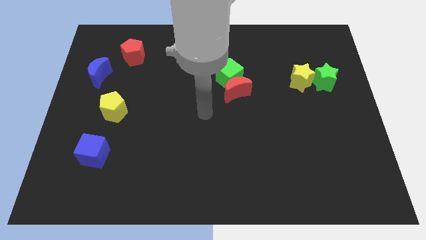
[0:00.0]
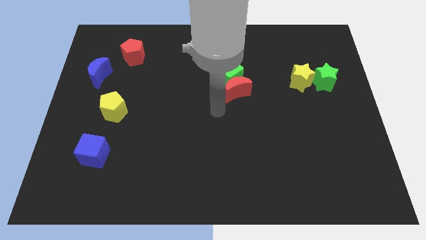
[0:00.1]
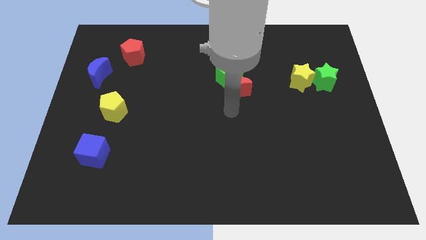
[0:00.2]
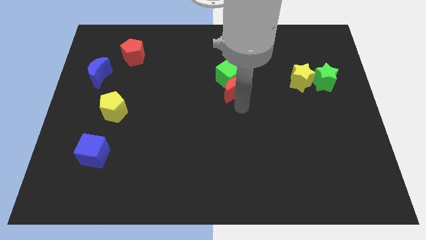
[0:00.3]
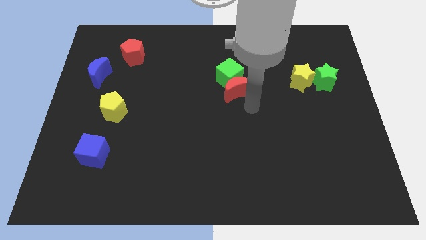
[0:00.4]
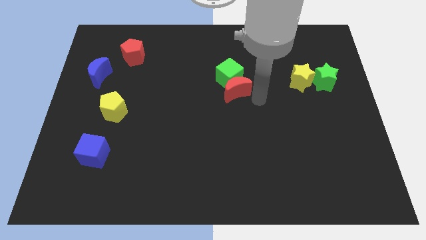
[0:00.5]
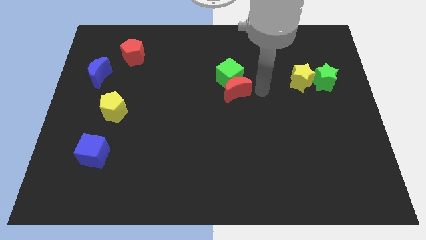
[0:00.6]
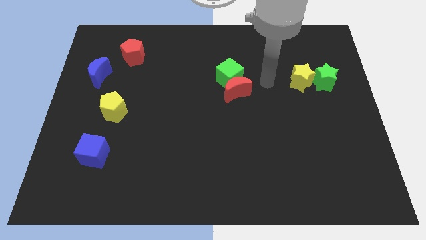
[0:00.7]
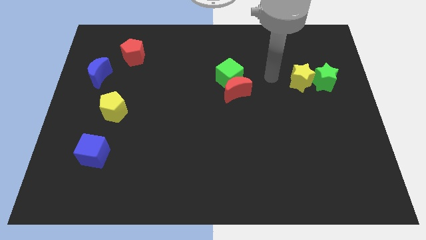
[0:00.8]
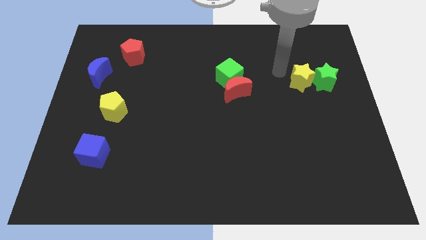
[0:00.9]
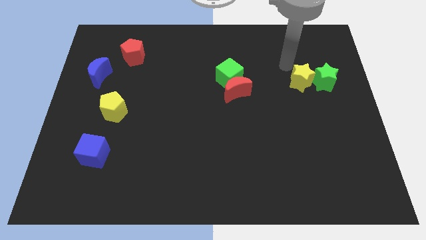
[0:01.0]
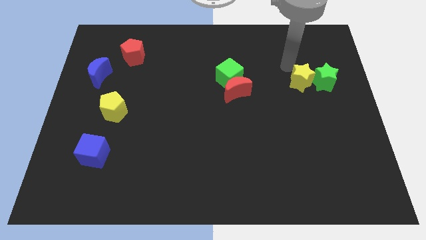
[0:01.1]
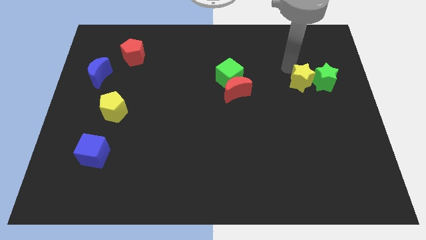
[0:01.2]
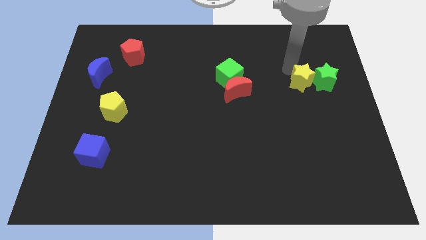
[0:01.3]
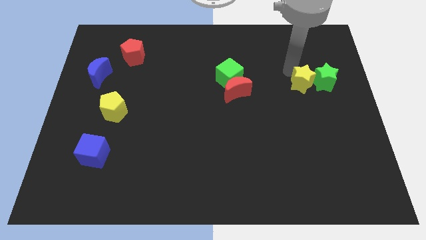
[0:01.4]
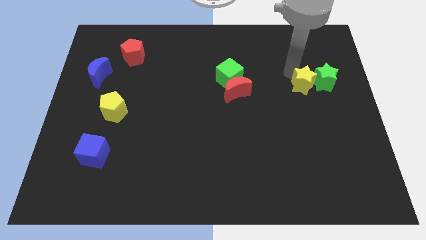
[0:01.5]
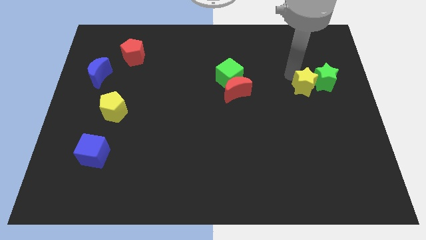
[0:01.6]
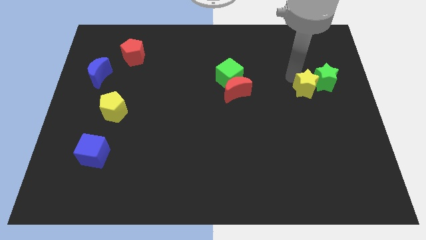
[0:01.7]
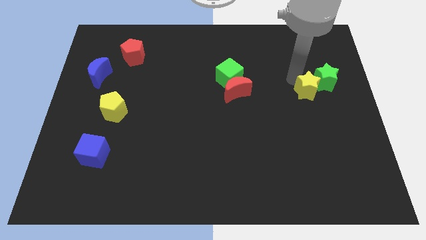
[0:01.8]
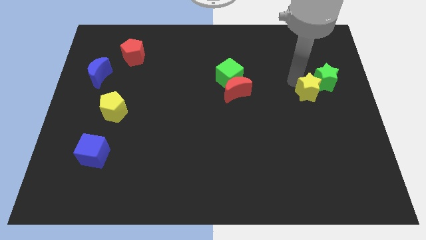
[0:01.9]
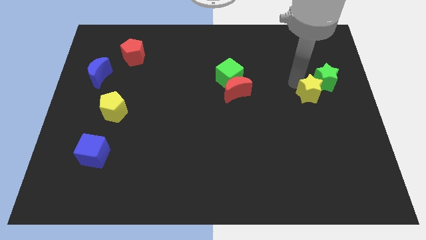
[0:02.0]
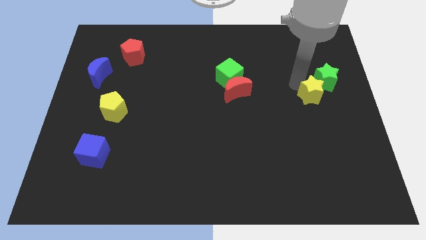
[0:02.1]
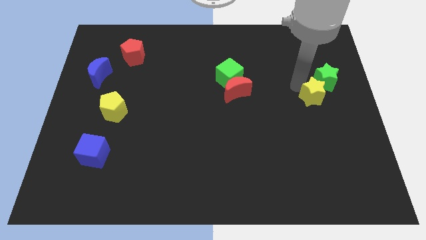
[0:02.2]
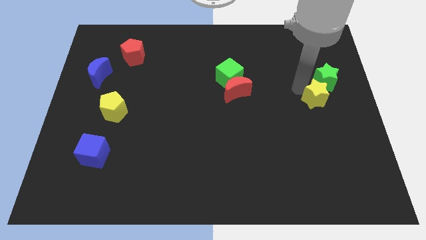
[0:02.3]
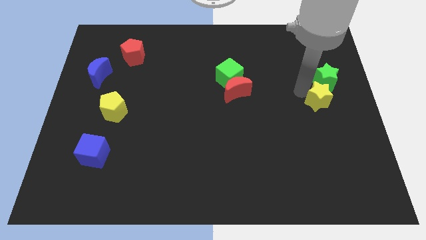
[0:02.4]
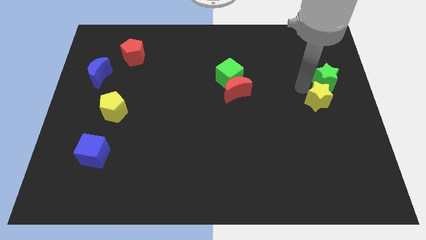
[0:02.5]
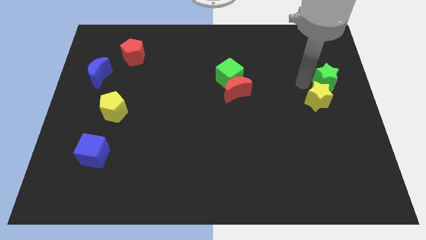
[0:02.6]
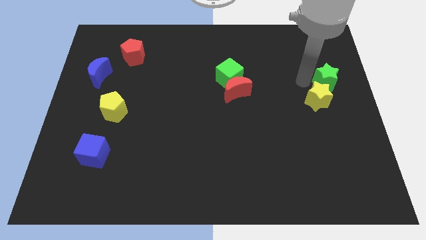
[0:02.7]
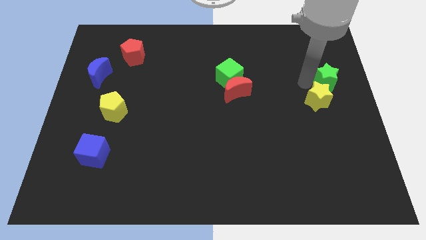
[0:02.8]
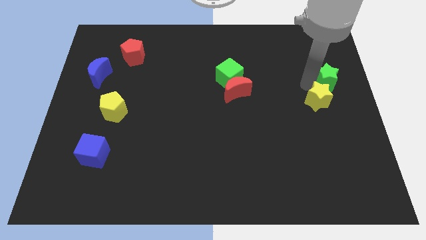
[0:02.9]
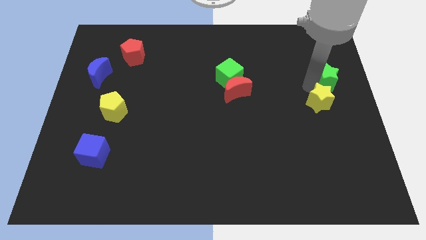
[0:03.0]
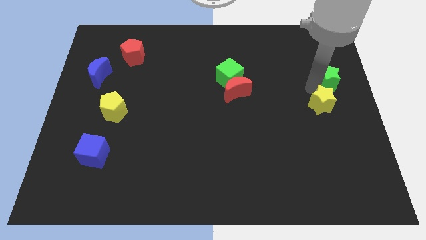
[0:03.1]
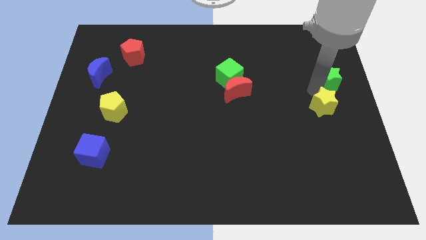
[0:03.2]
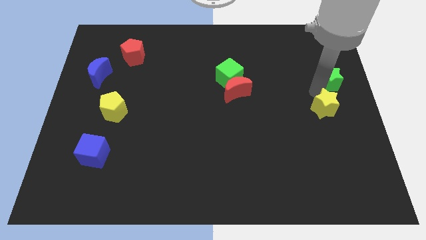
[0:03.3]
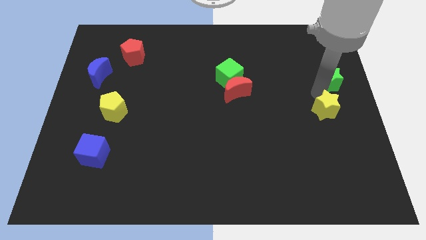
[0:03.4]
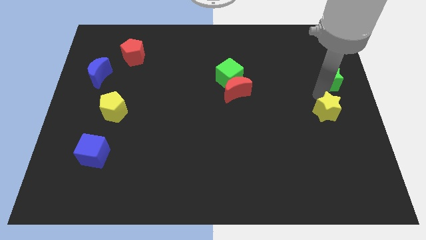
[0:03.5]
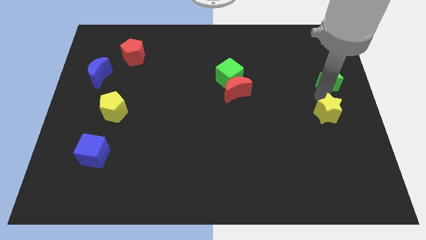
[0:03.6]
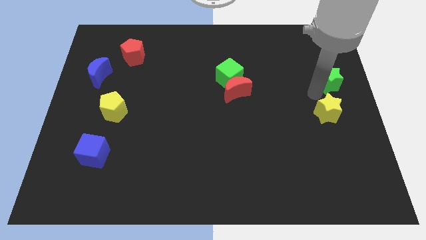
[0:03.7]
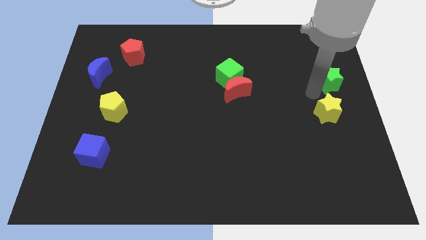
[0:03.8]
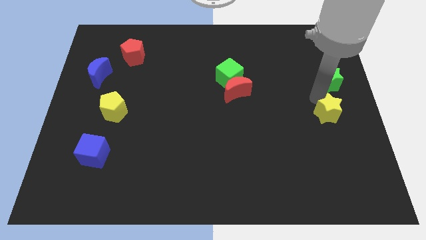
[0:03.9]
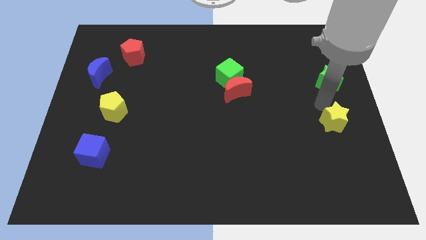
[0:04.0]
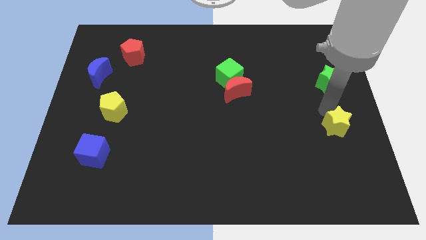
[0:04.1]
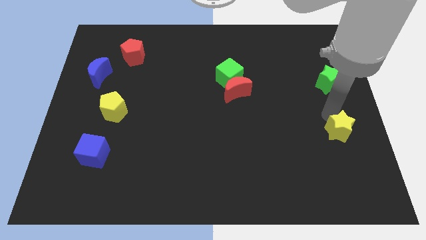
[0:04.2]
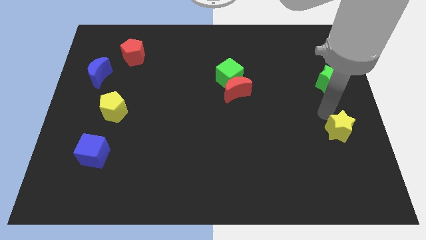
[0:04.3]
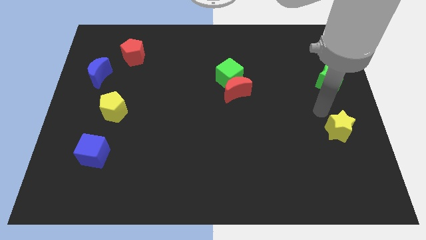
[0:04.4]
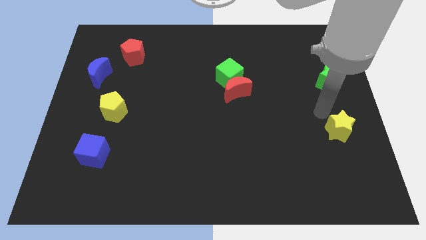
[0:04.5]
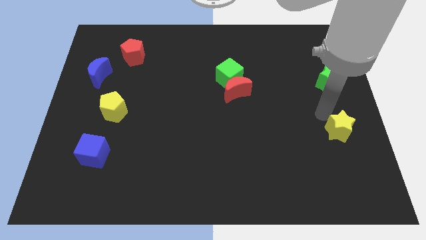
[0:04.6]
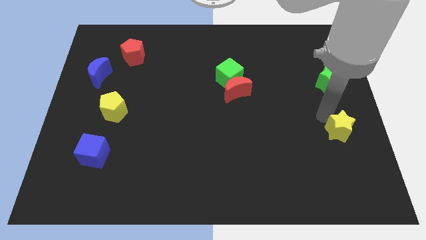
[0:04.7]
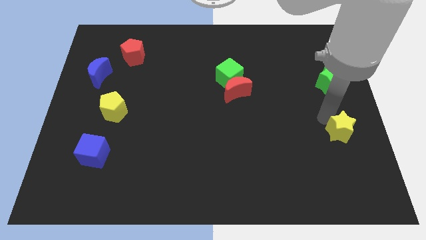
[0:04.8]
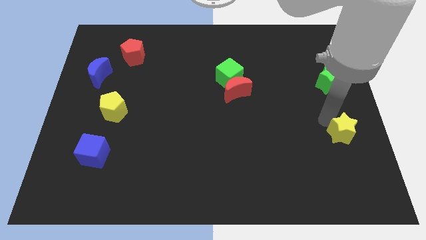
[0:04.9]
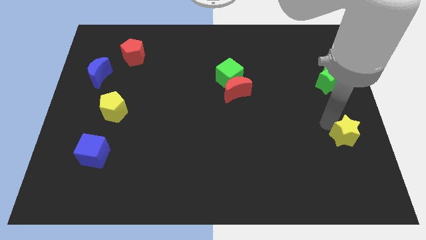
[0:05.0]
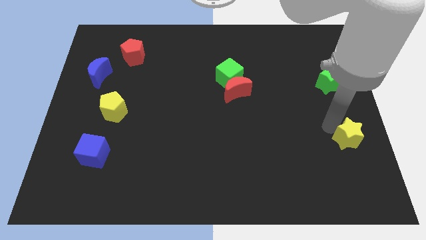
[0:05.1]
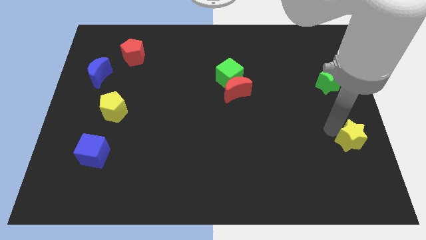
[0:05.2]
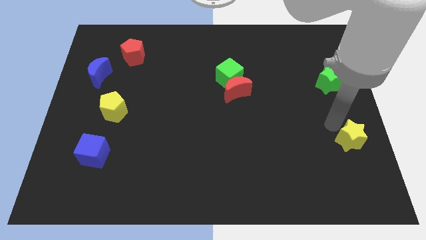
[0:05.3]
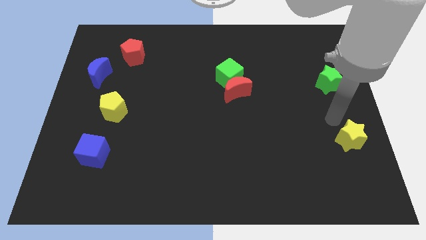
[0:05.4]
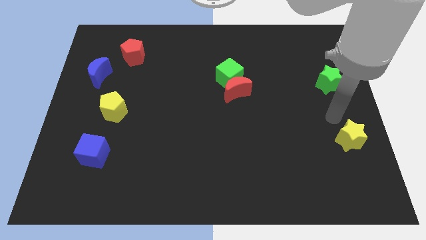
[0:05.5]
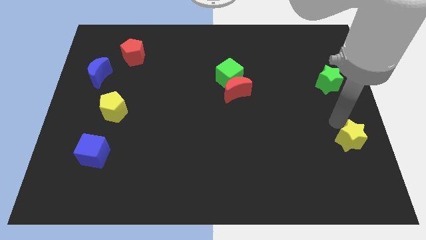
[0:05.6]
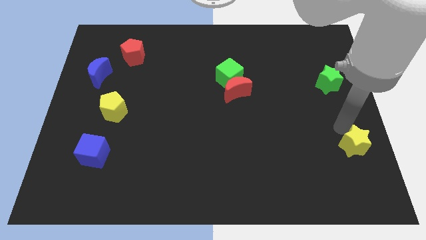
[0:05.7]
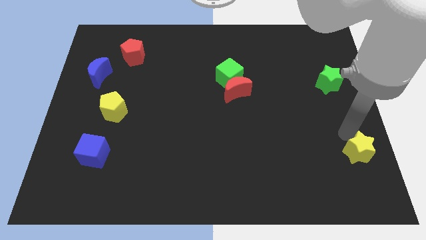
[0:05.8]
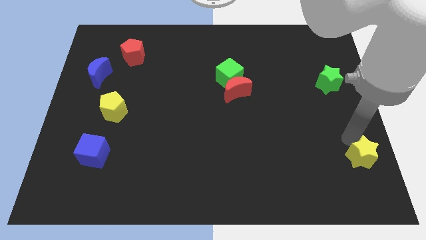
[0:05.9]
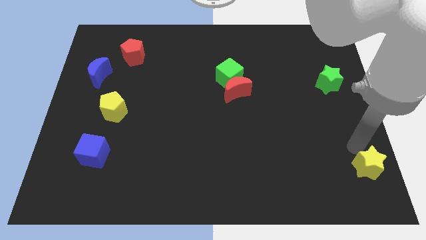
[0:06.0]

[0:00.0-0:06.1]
move the yellow star to the bottom right of the board

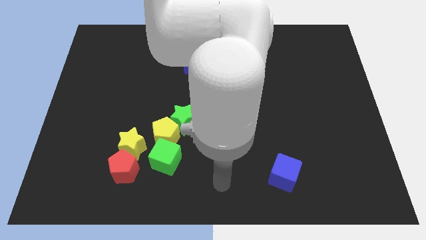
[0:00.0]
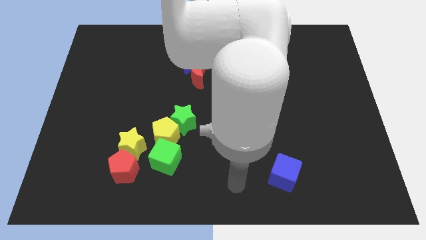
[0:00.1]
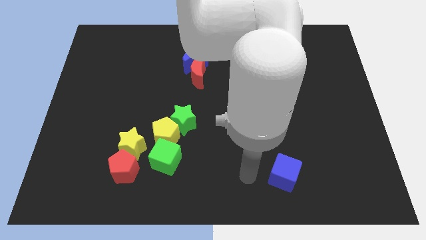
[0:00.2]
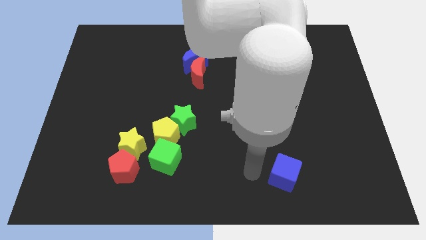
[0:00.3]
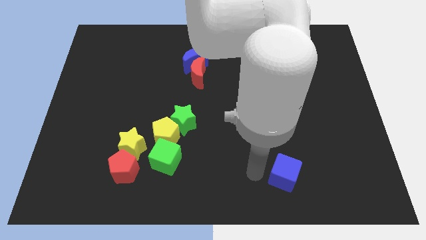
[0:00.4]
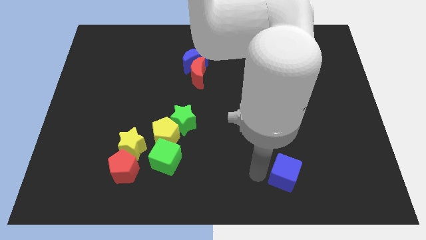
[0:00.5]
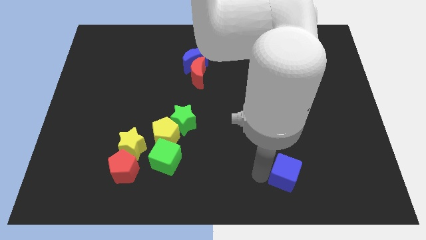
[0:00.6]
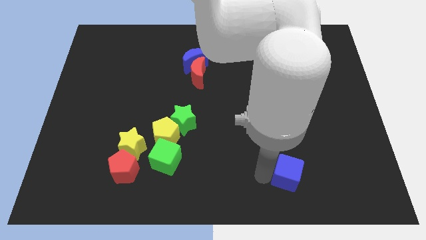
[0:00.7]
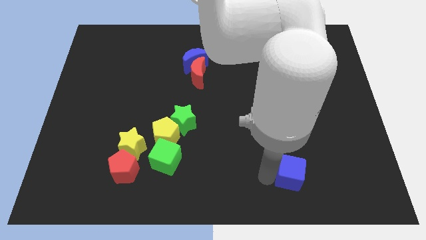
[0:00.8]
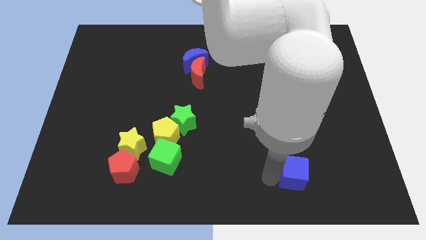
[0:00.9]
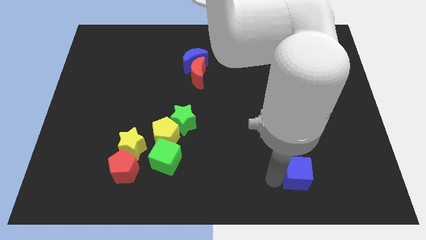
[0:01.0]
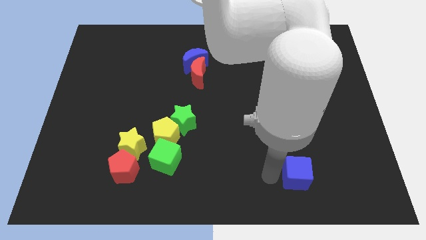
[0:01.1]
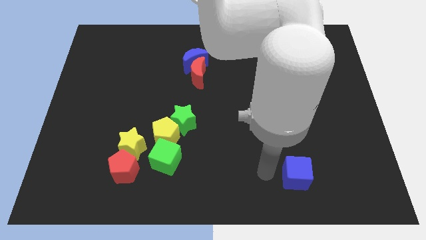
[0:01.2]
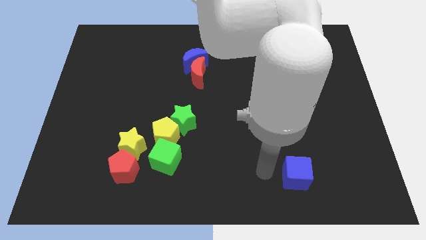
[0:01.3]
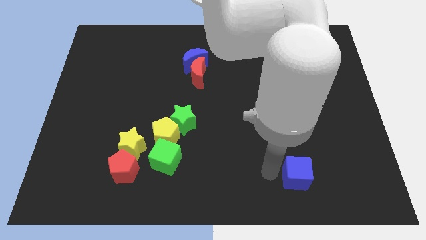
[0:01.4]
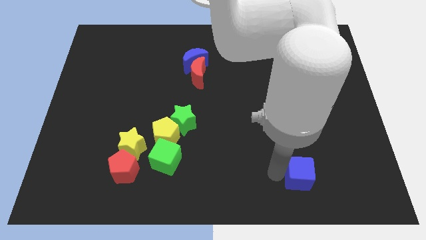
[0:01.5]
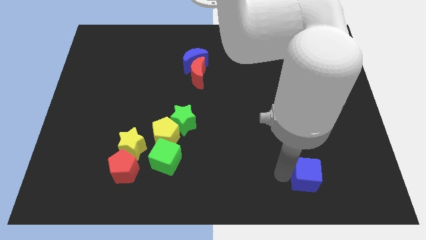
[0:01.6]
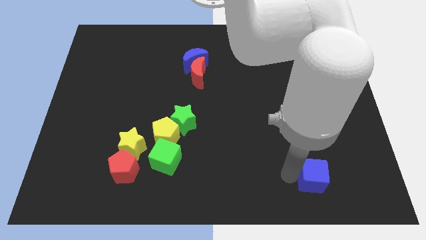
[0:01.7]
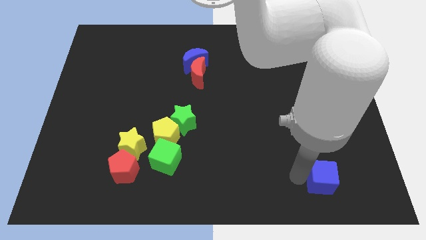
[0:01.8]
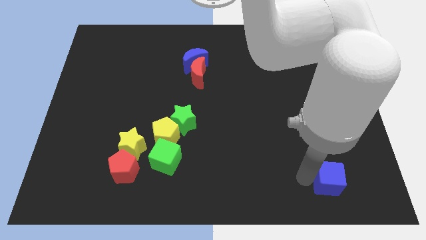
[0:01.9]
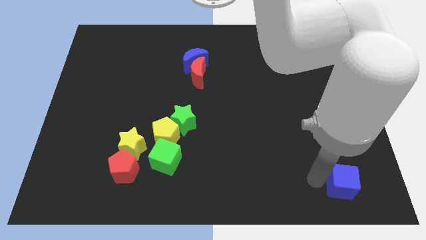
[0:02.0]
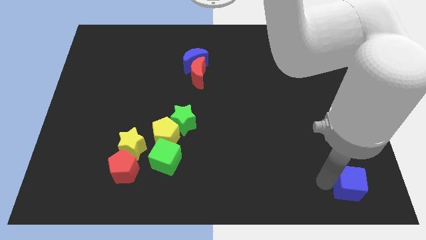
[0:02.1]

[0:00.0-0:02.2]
put the blue cube to the bottom right
